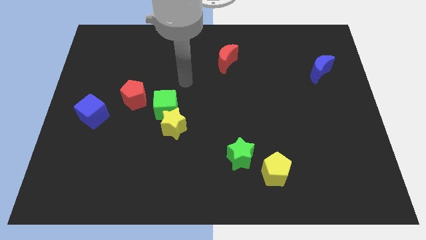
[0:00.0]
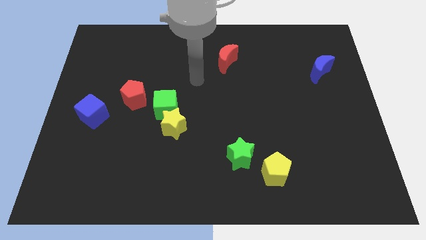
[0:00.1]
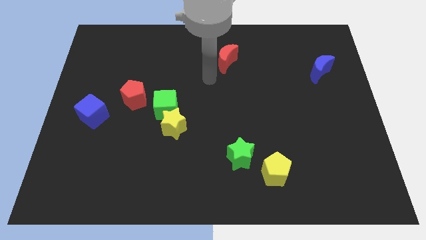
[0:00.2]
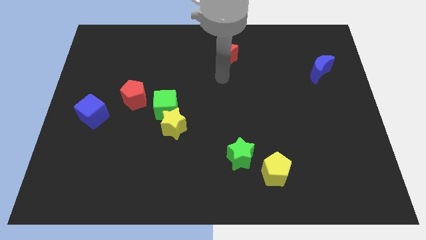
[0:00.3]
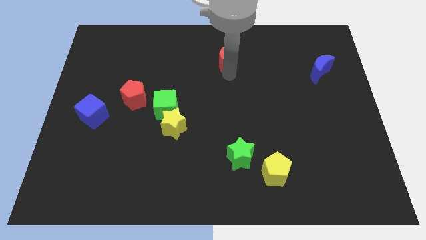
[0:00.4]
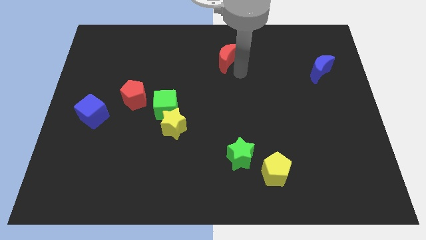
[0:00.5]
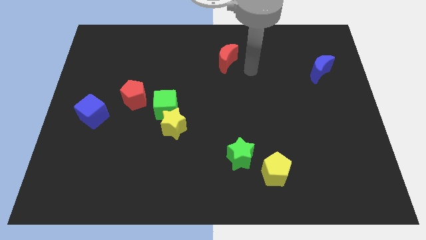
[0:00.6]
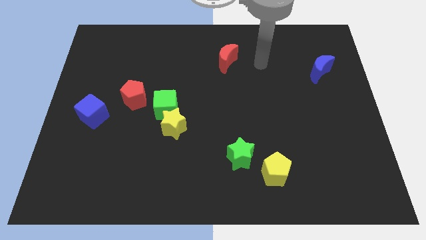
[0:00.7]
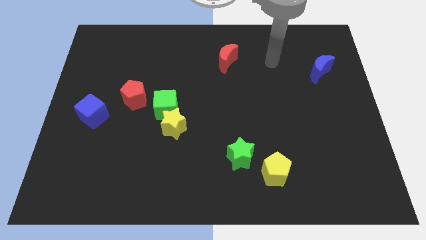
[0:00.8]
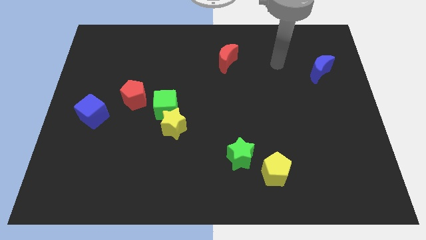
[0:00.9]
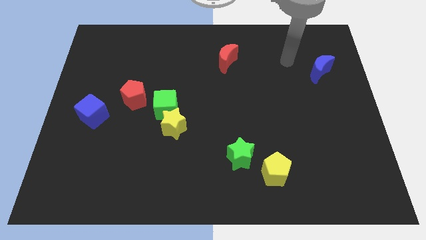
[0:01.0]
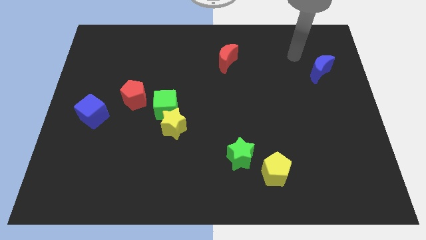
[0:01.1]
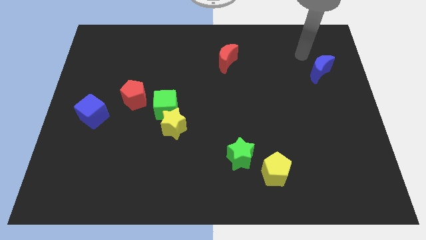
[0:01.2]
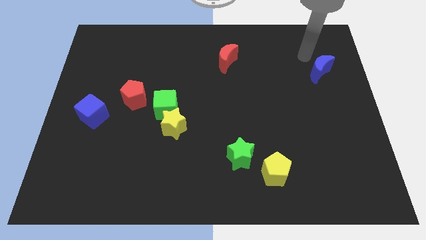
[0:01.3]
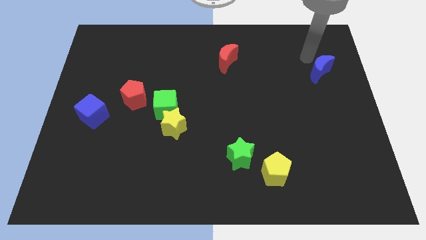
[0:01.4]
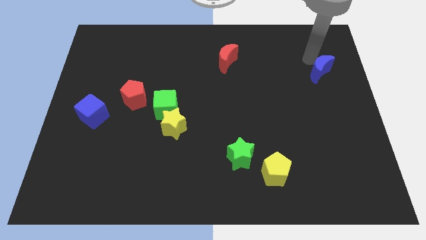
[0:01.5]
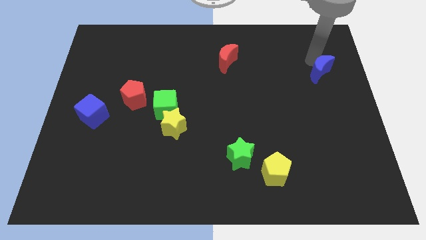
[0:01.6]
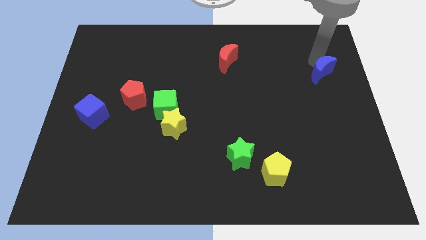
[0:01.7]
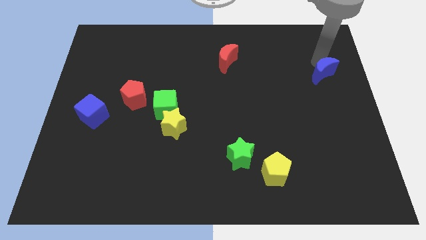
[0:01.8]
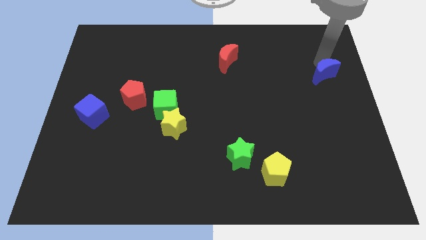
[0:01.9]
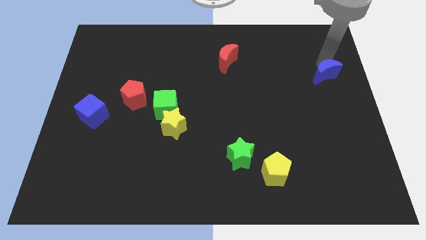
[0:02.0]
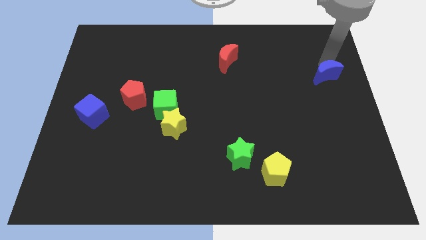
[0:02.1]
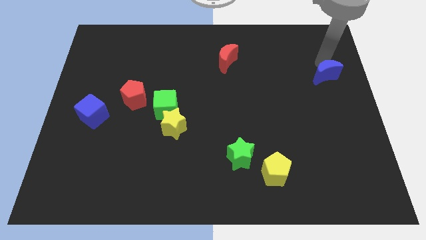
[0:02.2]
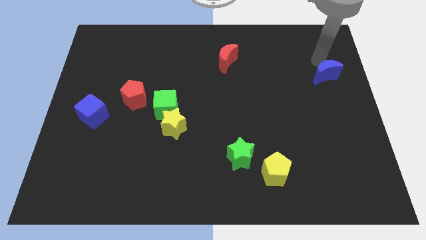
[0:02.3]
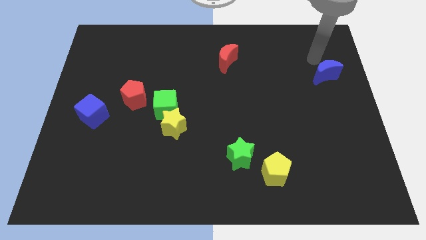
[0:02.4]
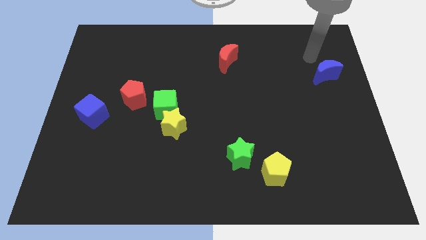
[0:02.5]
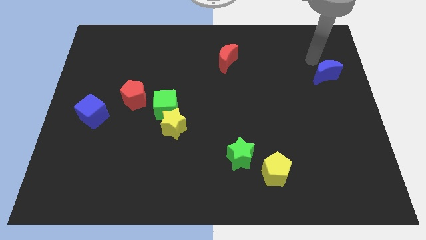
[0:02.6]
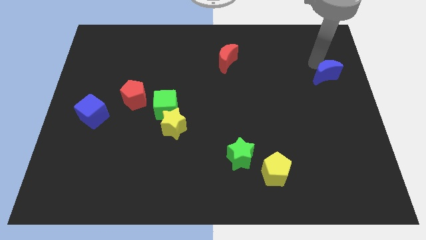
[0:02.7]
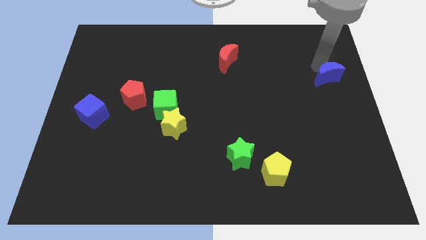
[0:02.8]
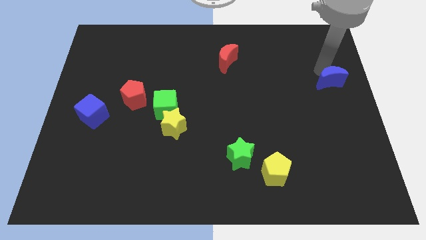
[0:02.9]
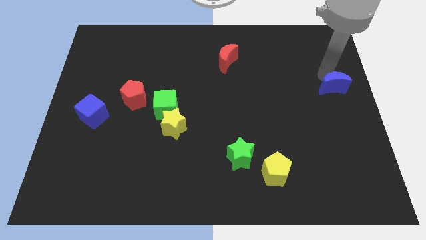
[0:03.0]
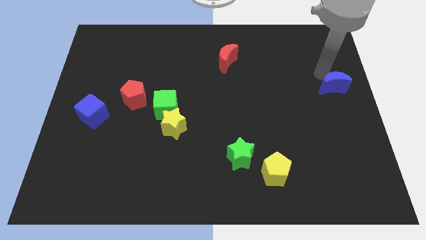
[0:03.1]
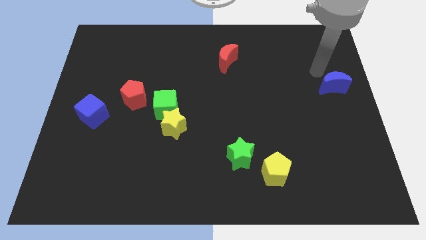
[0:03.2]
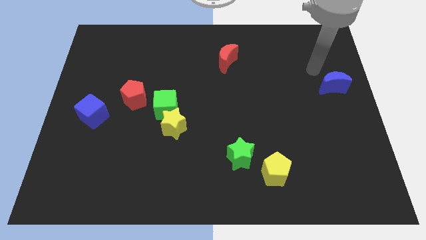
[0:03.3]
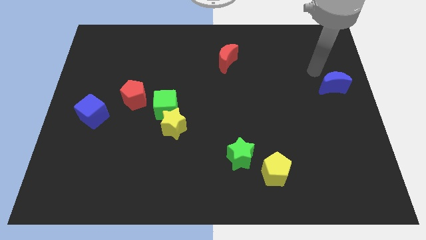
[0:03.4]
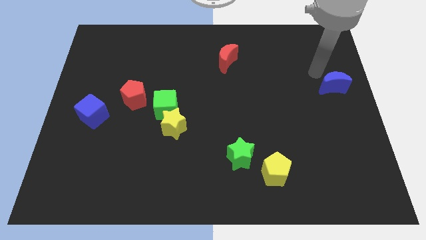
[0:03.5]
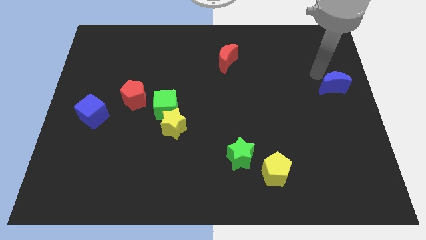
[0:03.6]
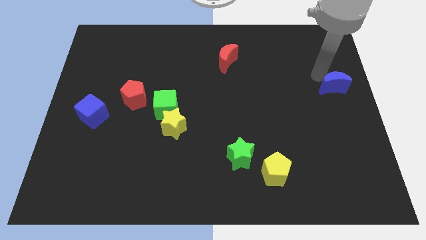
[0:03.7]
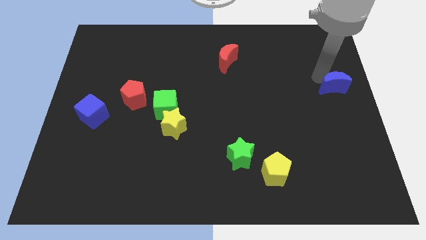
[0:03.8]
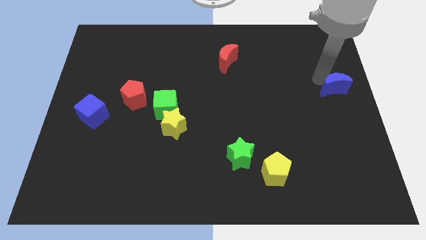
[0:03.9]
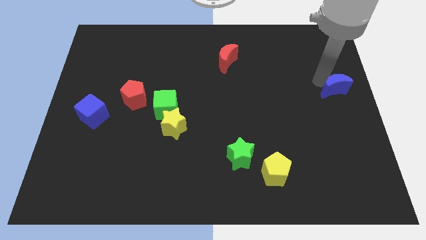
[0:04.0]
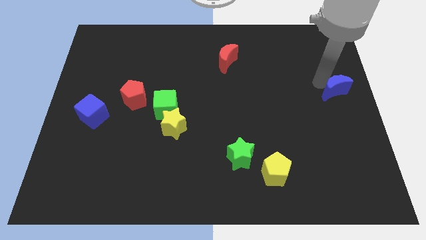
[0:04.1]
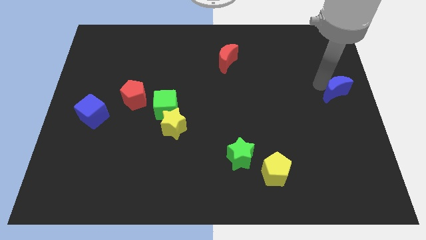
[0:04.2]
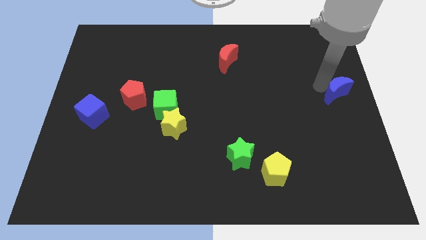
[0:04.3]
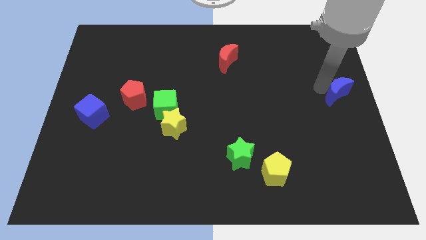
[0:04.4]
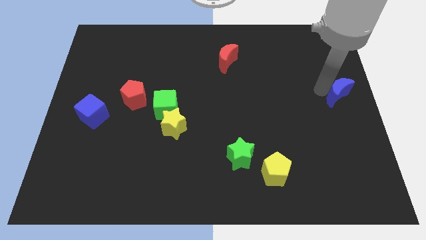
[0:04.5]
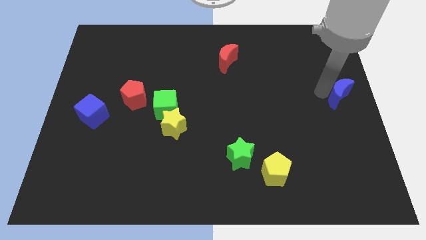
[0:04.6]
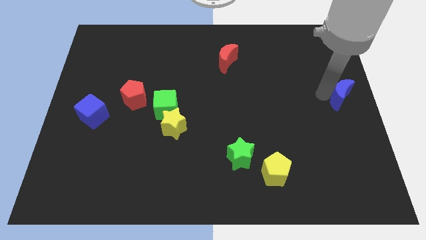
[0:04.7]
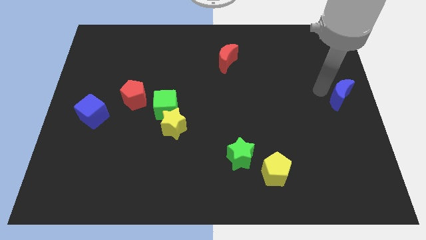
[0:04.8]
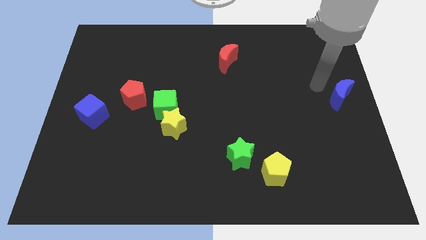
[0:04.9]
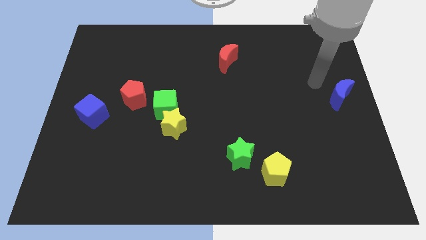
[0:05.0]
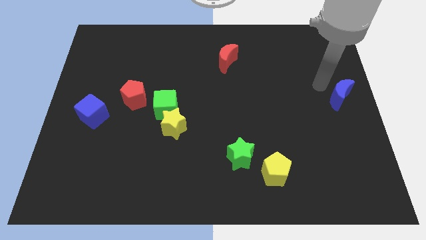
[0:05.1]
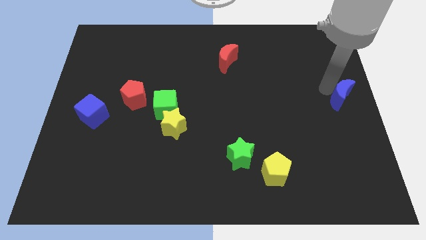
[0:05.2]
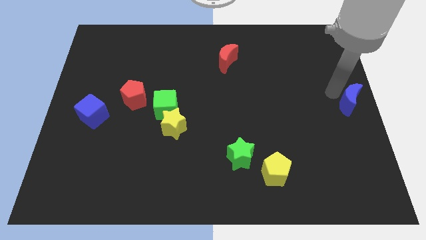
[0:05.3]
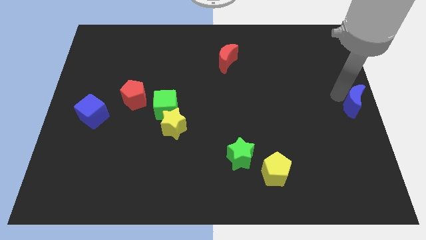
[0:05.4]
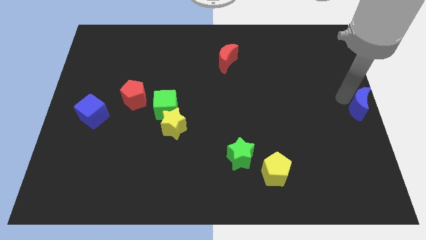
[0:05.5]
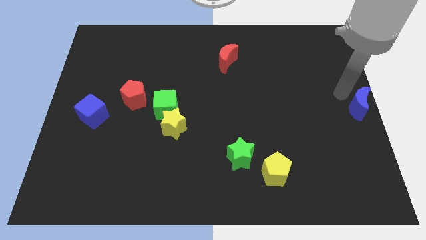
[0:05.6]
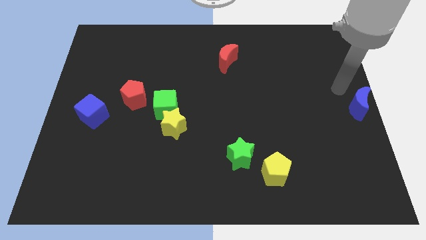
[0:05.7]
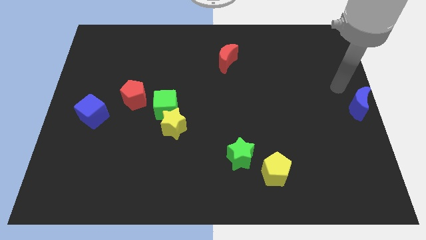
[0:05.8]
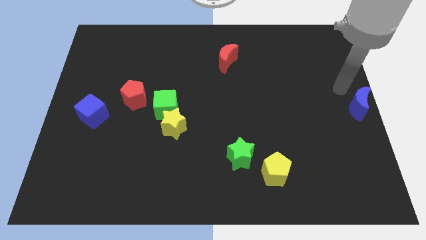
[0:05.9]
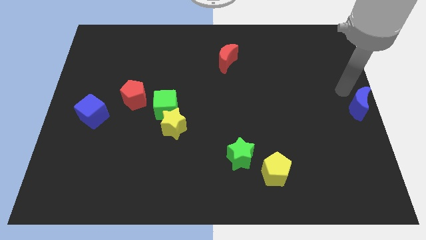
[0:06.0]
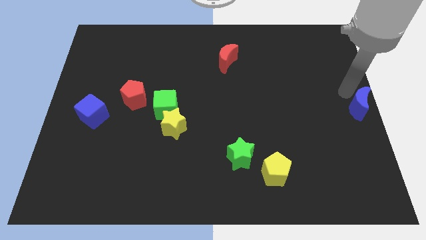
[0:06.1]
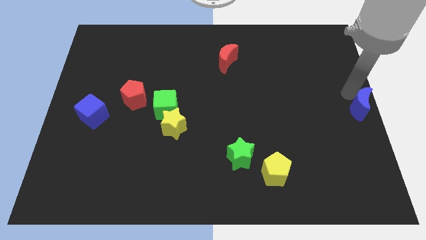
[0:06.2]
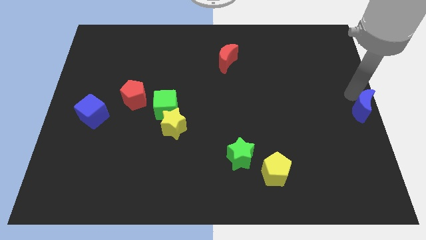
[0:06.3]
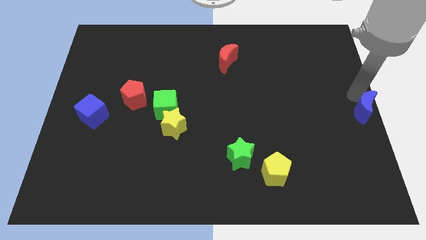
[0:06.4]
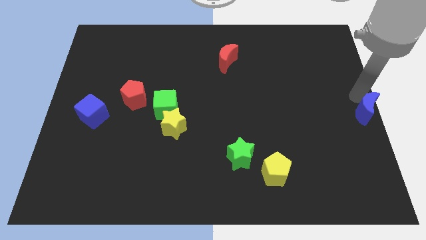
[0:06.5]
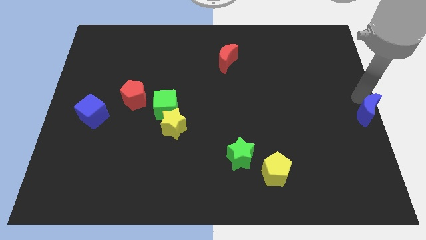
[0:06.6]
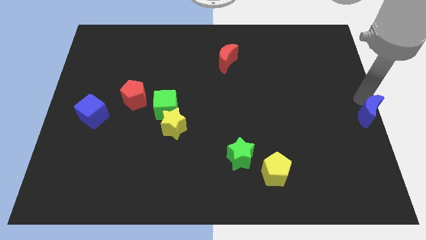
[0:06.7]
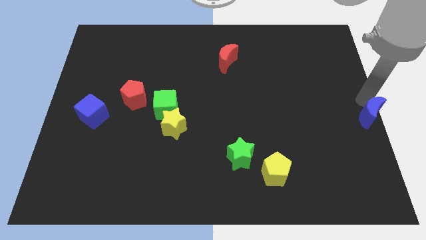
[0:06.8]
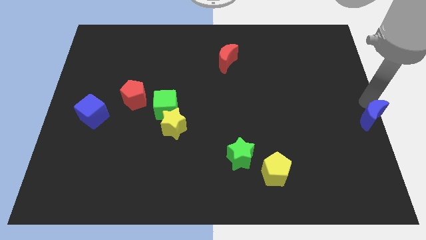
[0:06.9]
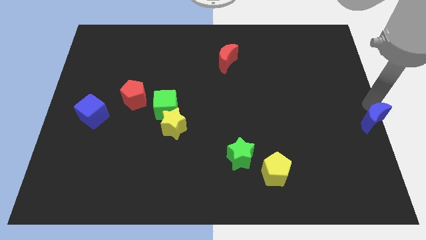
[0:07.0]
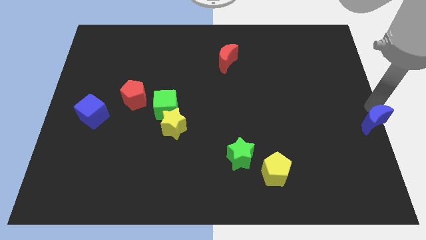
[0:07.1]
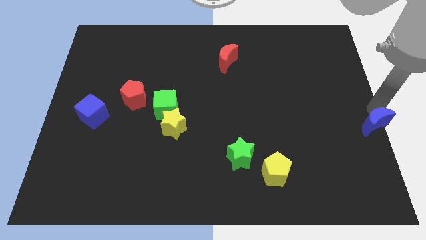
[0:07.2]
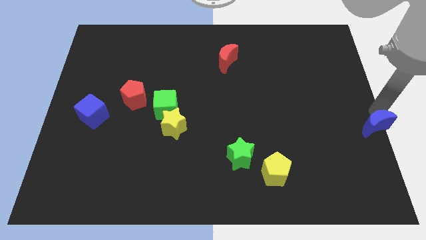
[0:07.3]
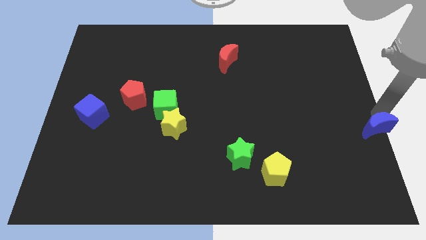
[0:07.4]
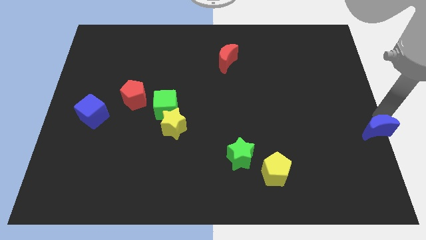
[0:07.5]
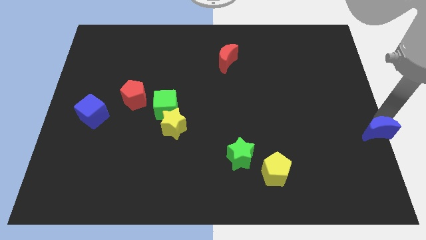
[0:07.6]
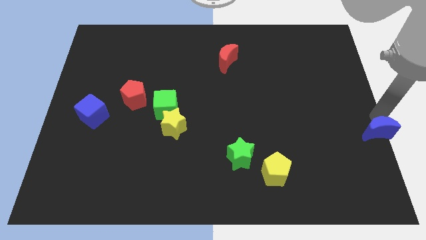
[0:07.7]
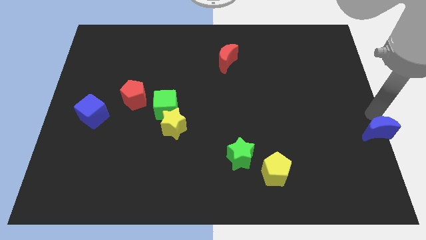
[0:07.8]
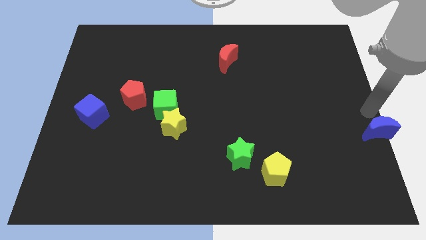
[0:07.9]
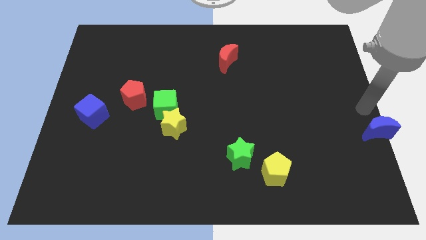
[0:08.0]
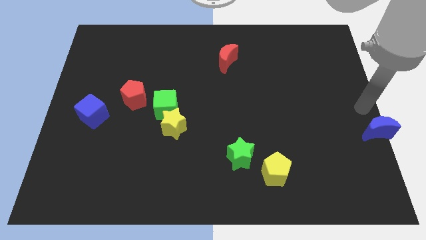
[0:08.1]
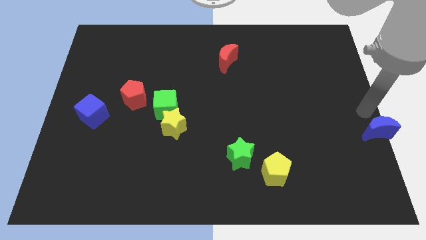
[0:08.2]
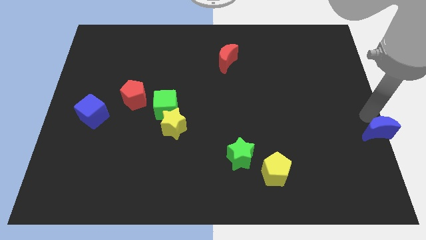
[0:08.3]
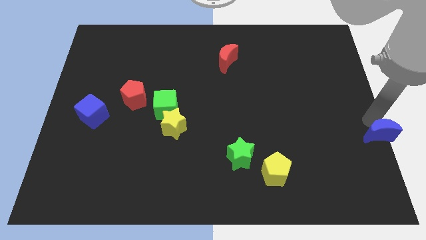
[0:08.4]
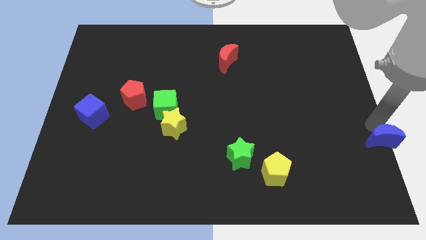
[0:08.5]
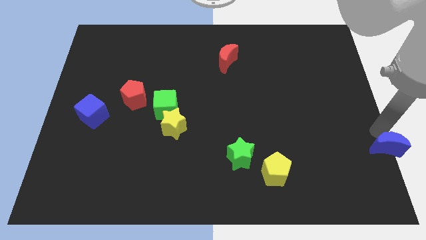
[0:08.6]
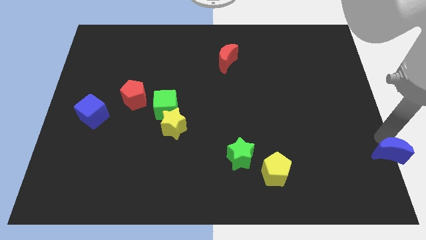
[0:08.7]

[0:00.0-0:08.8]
push the blue moon to the lower right corner

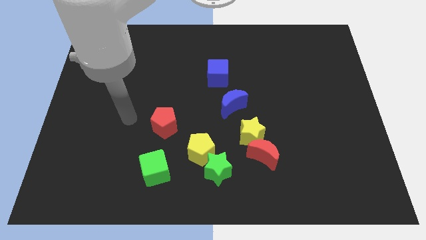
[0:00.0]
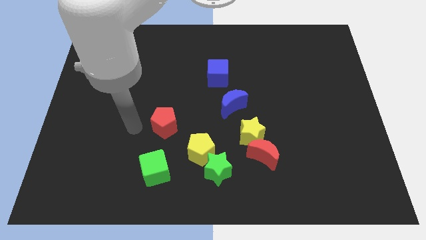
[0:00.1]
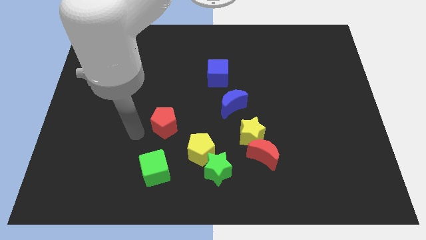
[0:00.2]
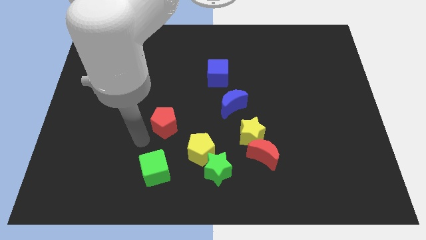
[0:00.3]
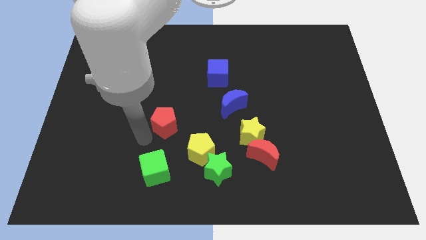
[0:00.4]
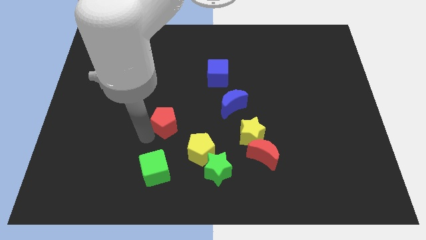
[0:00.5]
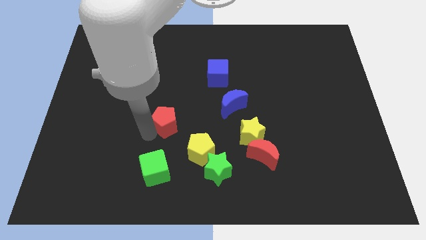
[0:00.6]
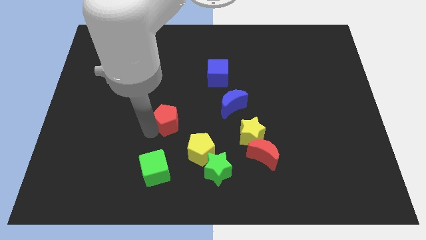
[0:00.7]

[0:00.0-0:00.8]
put the red pentagon to the center of the board
